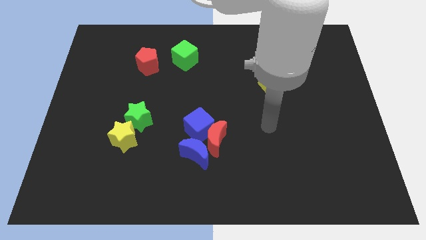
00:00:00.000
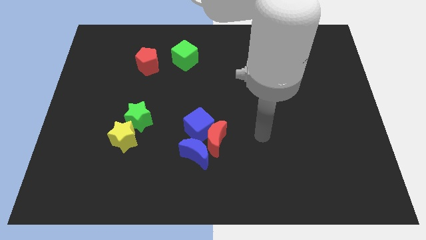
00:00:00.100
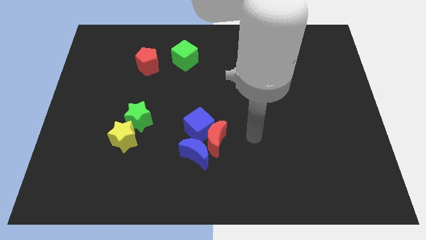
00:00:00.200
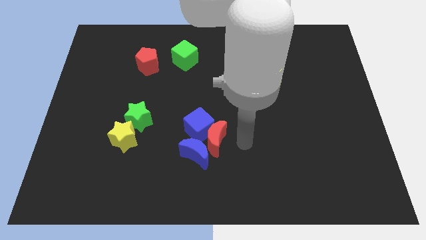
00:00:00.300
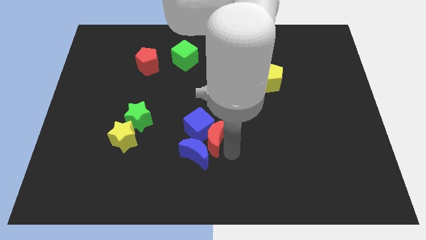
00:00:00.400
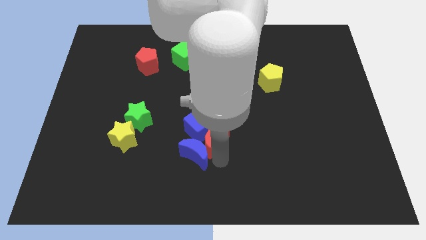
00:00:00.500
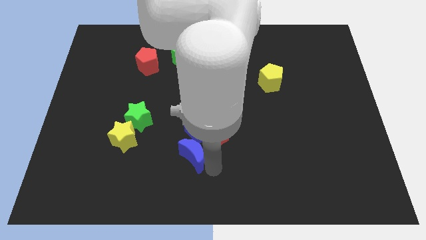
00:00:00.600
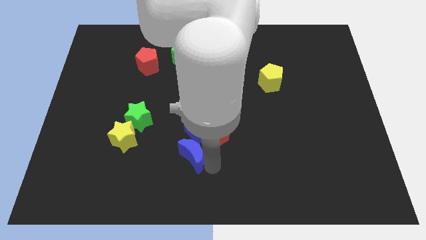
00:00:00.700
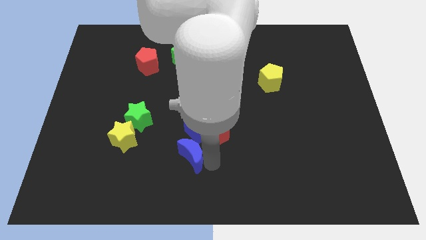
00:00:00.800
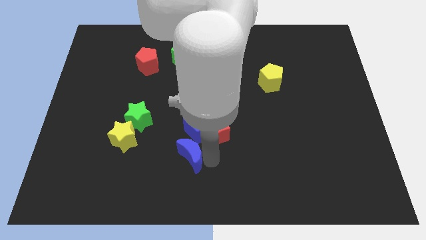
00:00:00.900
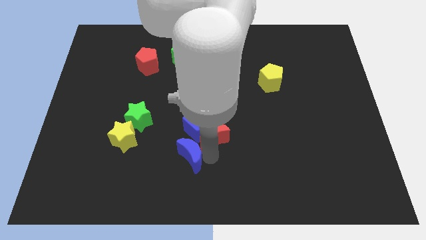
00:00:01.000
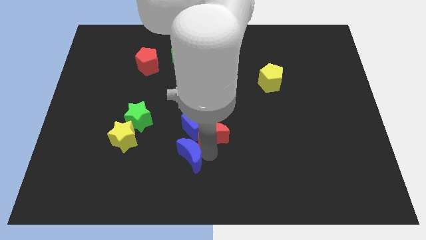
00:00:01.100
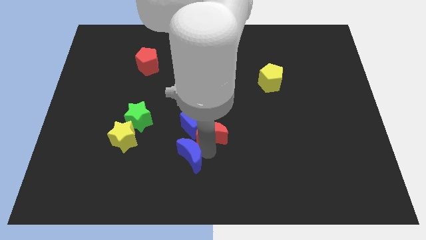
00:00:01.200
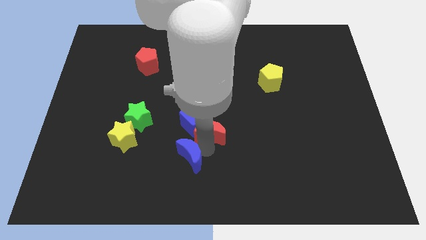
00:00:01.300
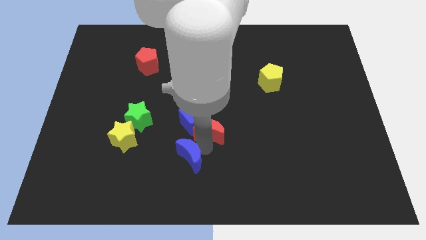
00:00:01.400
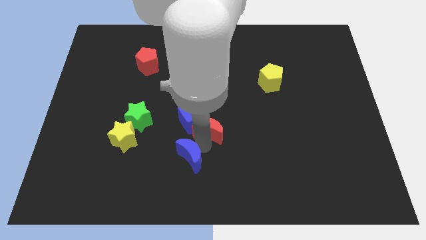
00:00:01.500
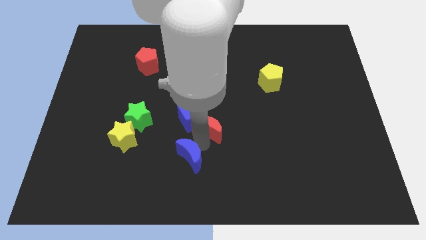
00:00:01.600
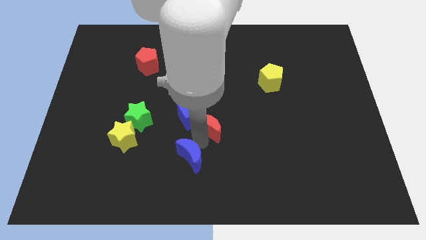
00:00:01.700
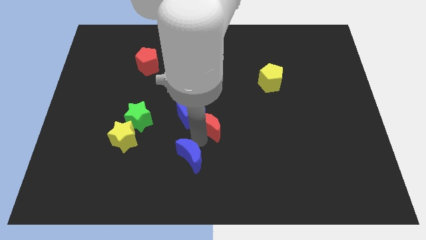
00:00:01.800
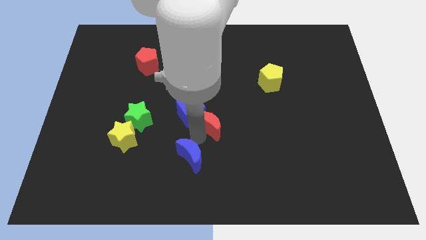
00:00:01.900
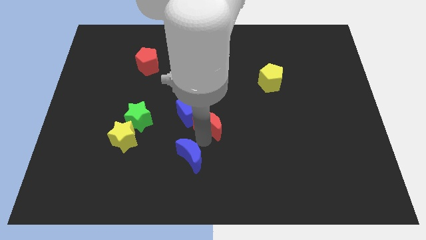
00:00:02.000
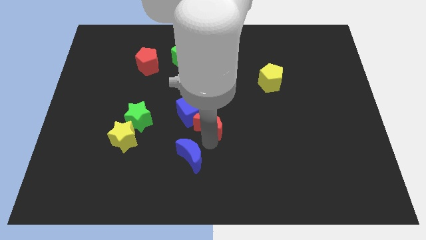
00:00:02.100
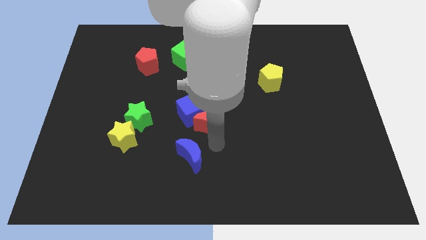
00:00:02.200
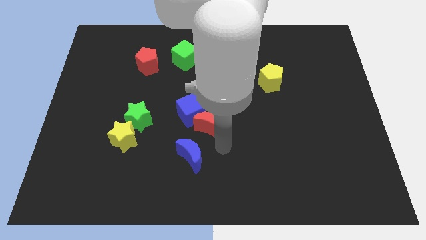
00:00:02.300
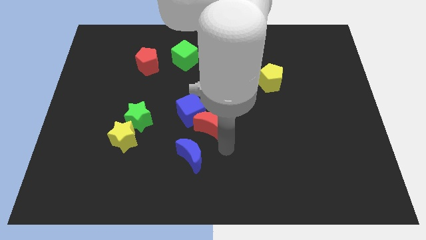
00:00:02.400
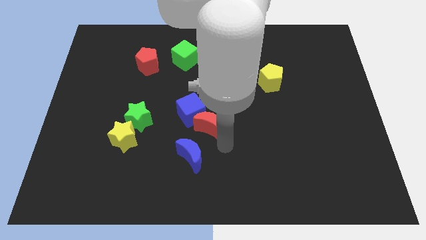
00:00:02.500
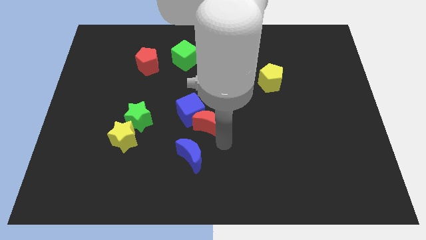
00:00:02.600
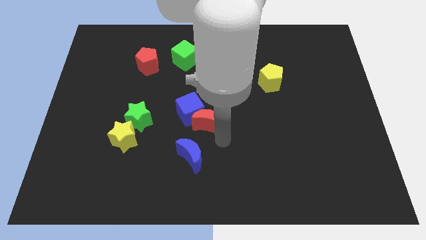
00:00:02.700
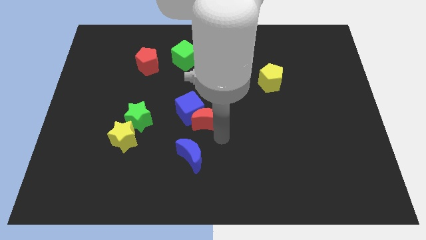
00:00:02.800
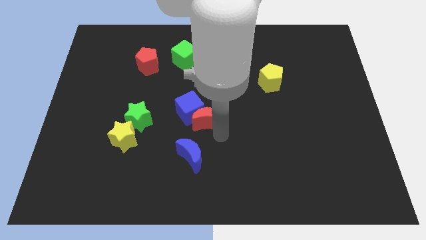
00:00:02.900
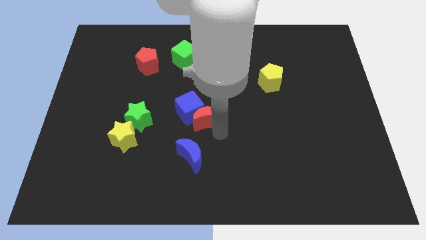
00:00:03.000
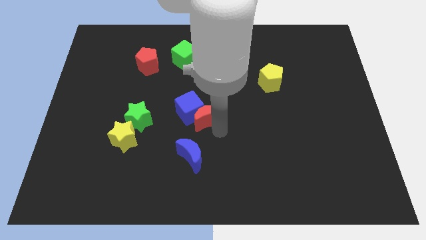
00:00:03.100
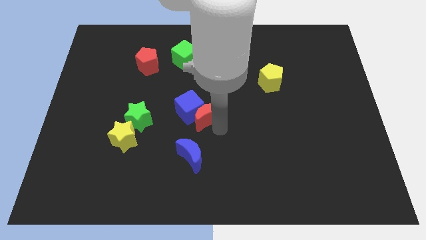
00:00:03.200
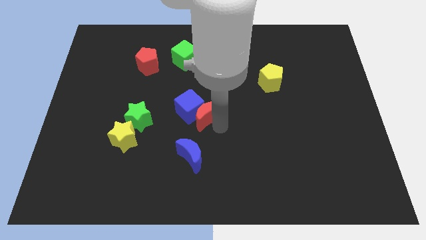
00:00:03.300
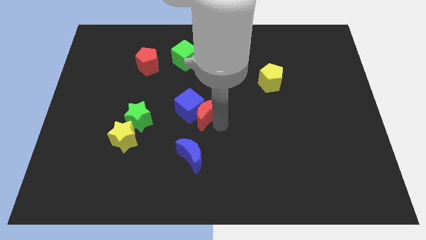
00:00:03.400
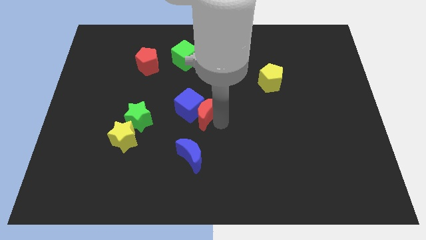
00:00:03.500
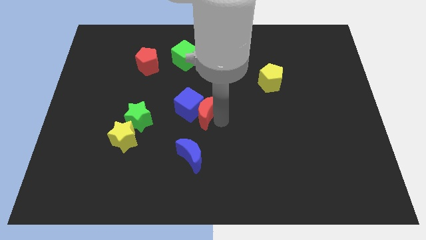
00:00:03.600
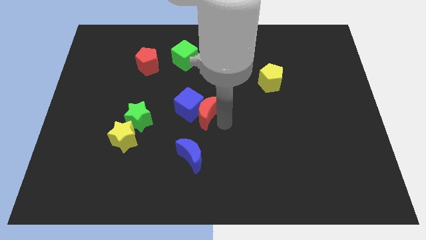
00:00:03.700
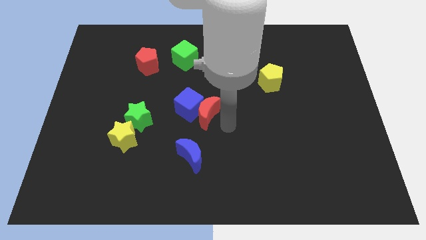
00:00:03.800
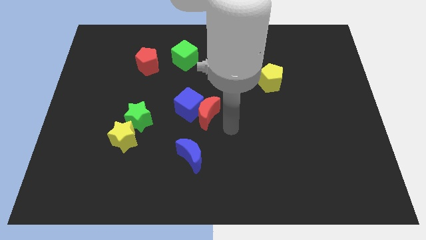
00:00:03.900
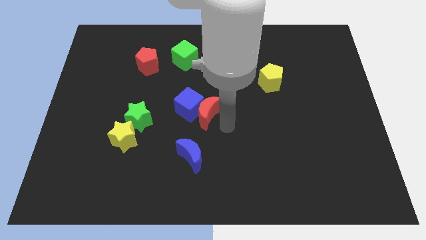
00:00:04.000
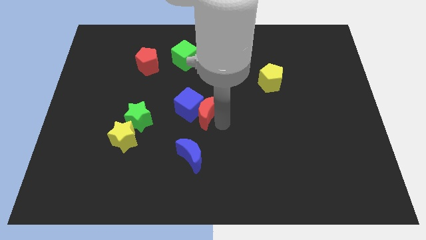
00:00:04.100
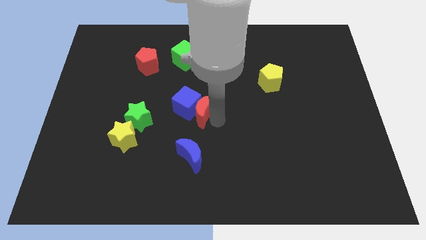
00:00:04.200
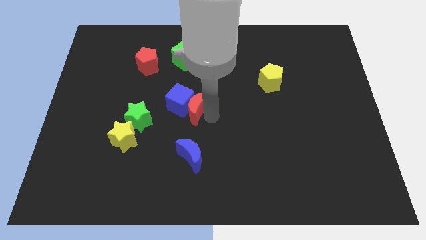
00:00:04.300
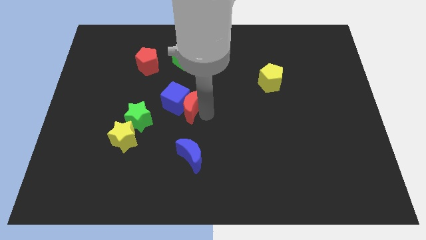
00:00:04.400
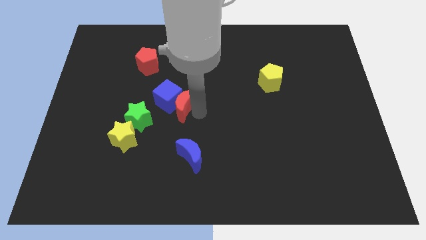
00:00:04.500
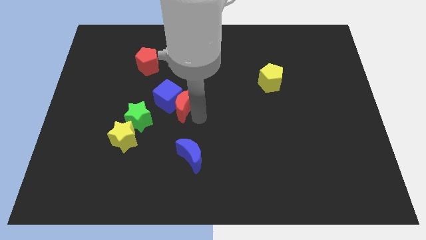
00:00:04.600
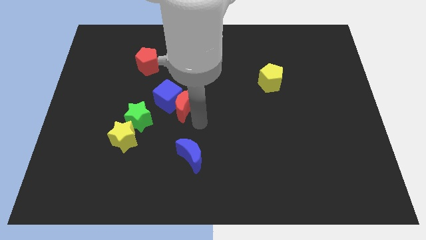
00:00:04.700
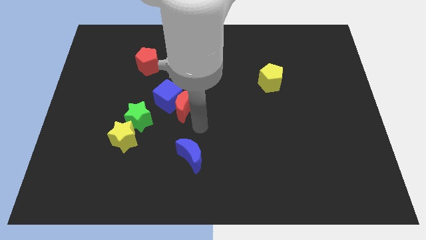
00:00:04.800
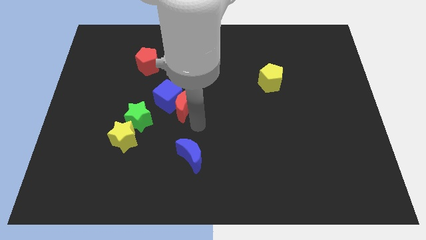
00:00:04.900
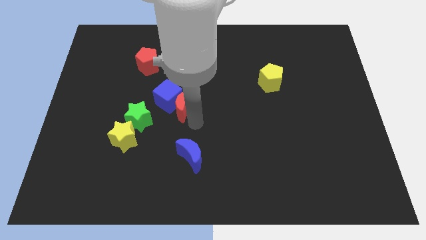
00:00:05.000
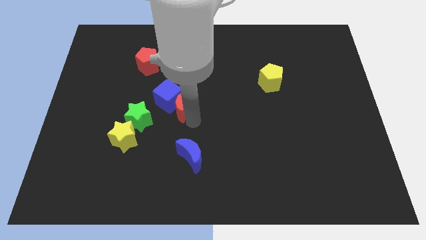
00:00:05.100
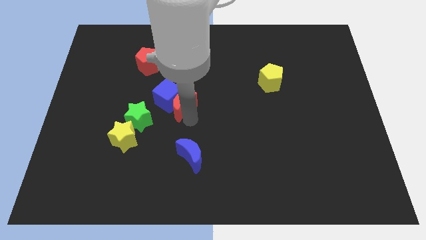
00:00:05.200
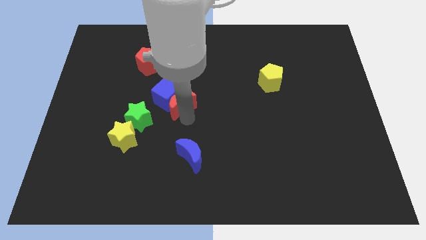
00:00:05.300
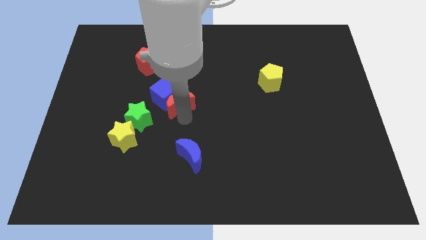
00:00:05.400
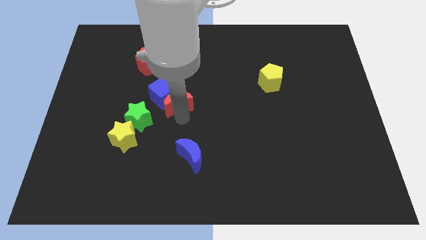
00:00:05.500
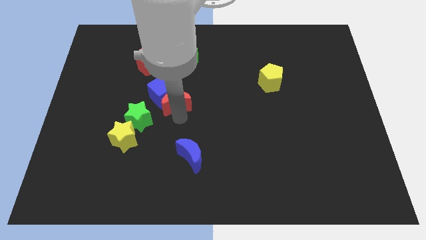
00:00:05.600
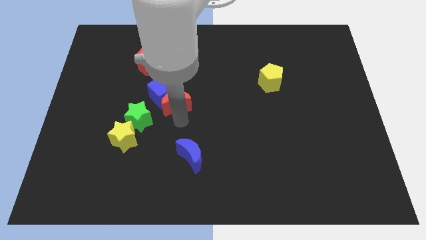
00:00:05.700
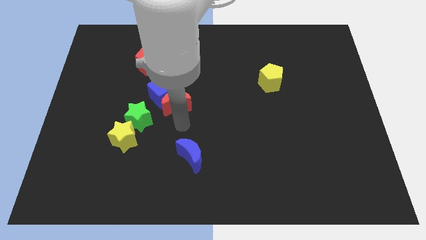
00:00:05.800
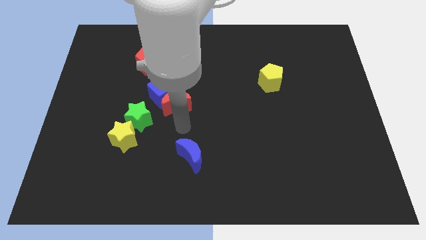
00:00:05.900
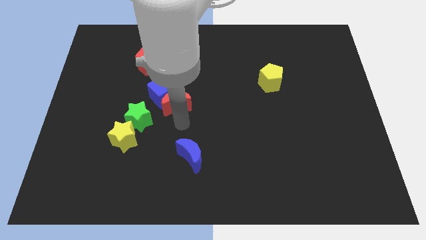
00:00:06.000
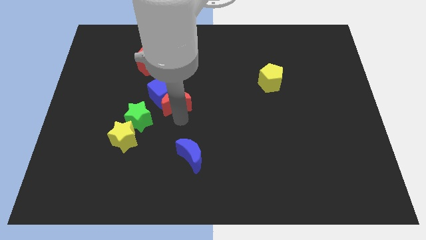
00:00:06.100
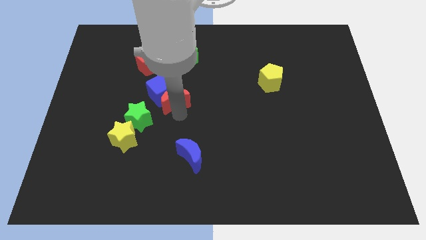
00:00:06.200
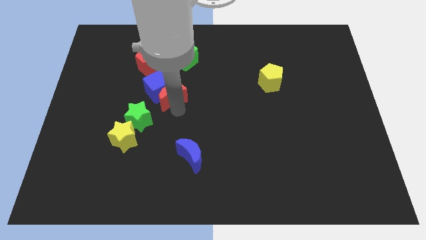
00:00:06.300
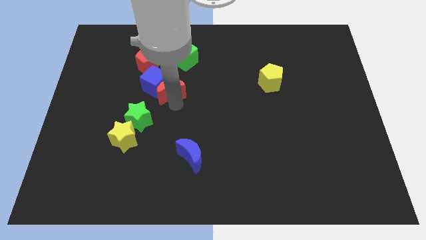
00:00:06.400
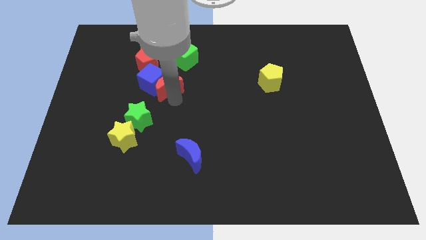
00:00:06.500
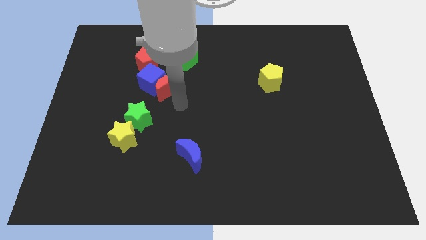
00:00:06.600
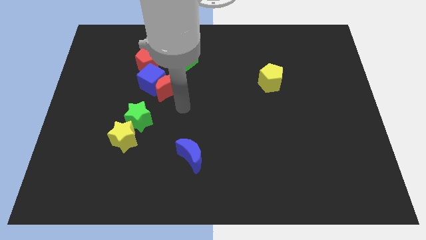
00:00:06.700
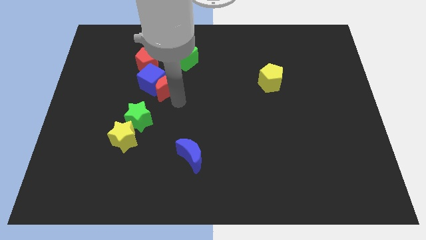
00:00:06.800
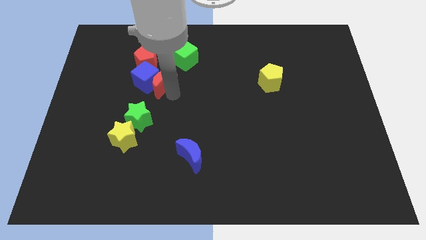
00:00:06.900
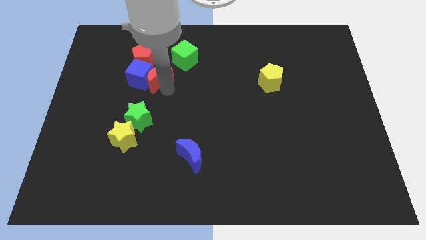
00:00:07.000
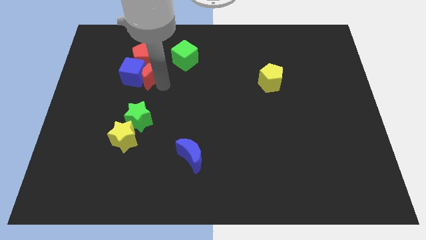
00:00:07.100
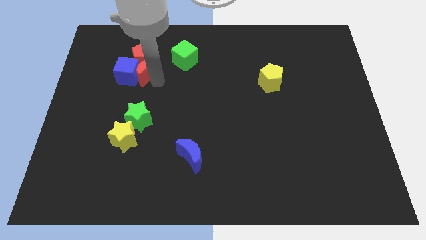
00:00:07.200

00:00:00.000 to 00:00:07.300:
put the red moon next to the red pentagon

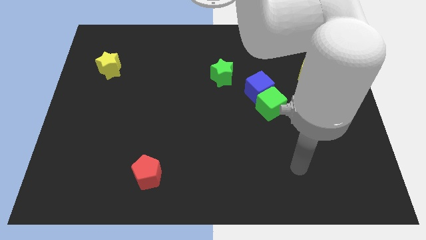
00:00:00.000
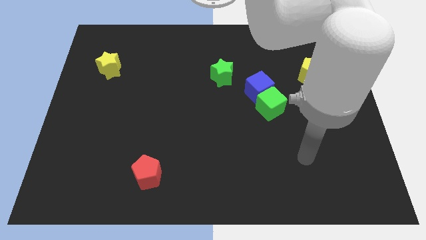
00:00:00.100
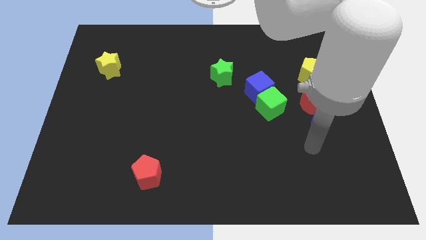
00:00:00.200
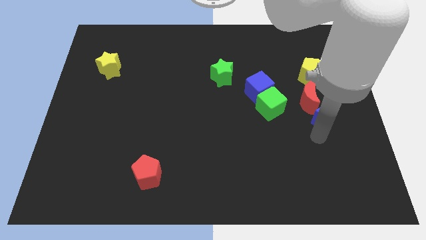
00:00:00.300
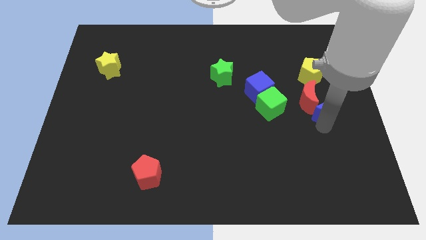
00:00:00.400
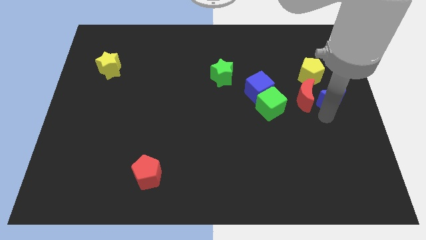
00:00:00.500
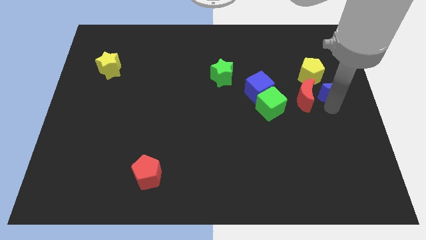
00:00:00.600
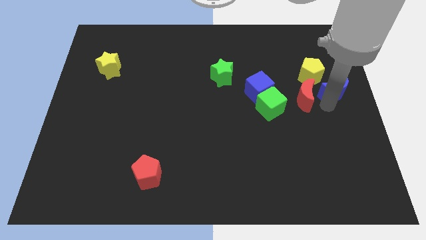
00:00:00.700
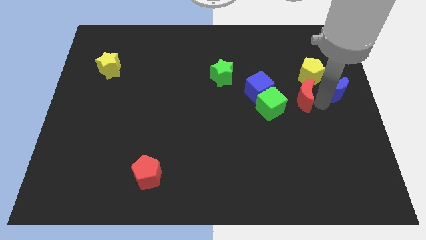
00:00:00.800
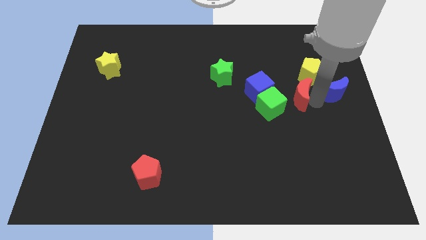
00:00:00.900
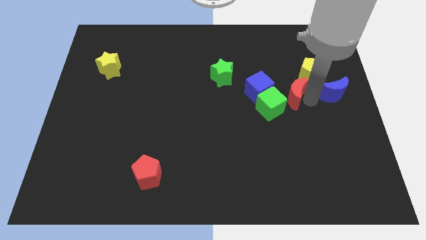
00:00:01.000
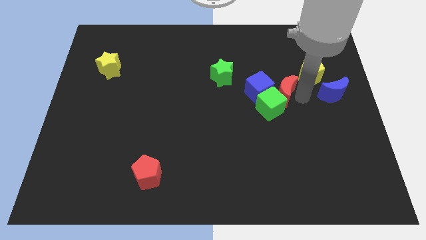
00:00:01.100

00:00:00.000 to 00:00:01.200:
move the red moon towards the blue cube
